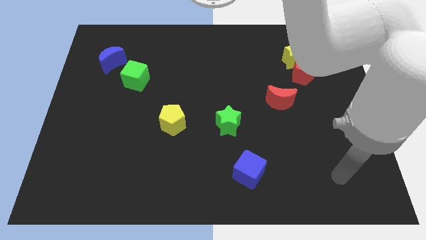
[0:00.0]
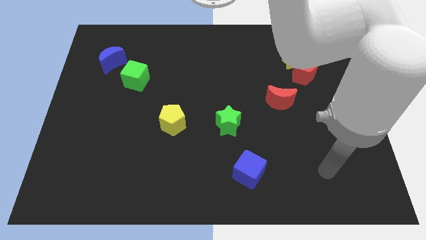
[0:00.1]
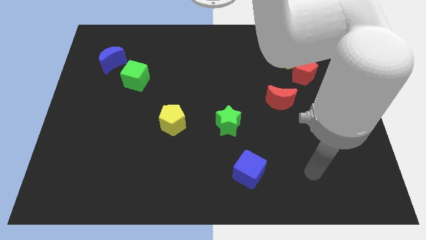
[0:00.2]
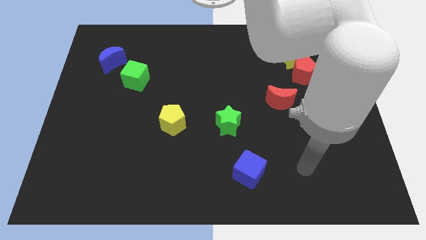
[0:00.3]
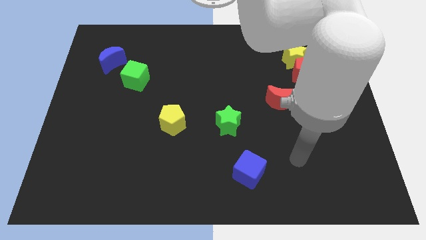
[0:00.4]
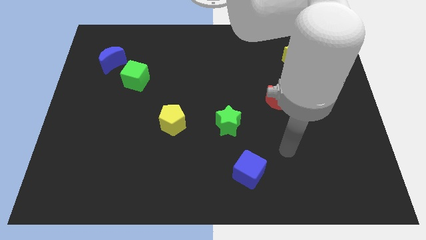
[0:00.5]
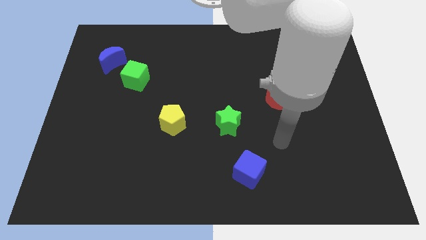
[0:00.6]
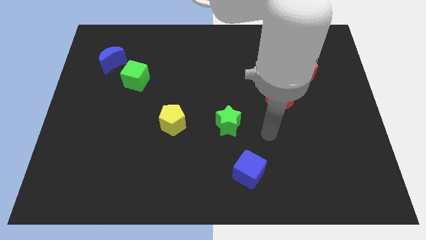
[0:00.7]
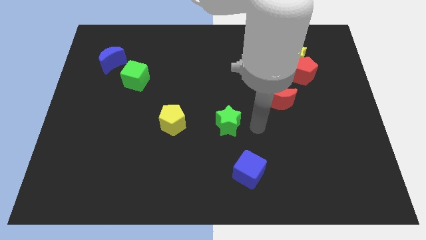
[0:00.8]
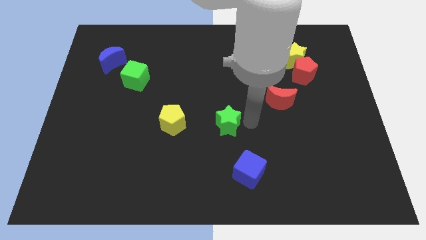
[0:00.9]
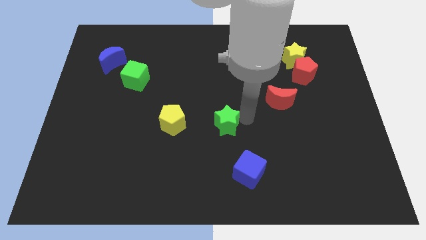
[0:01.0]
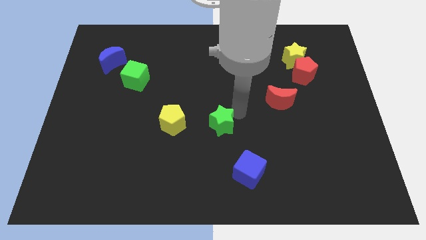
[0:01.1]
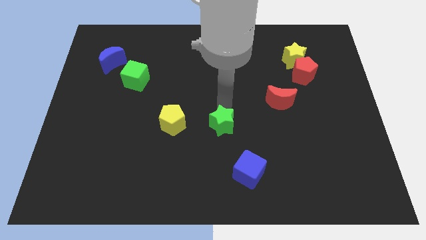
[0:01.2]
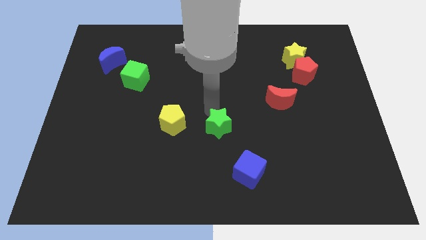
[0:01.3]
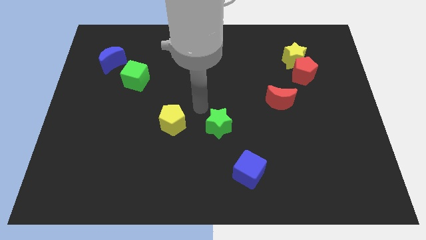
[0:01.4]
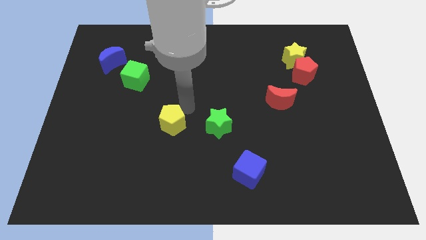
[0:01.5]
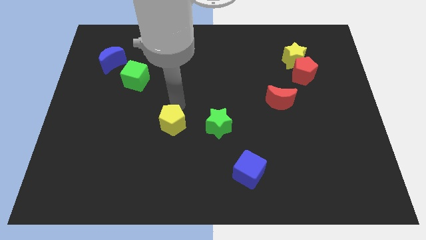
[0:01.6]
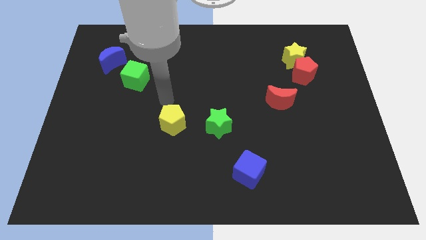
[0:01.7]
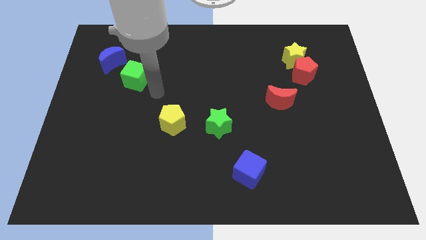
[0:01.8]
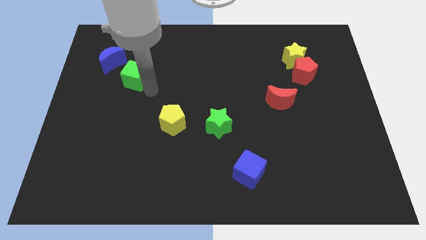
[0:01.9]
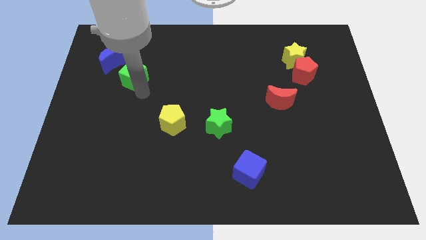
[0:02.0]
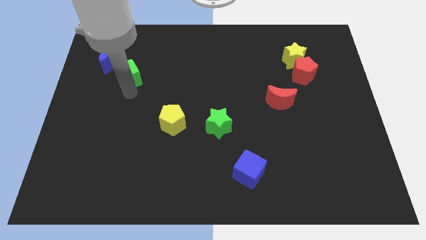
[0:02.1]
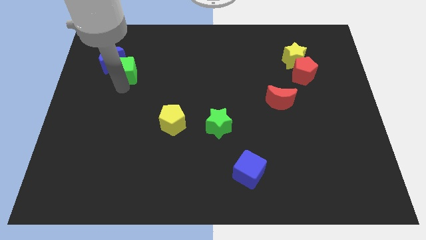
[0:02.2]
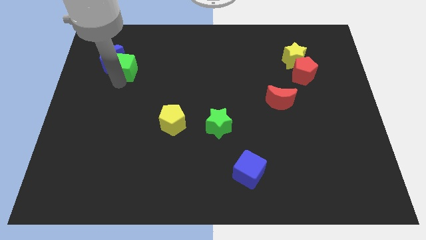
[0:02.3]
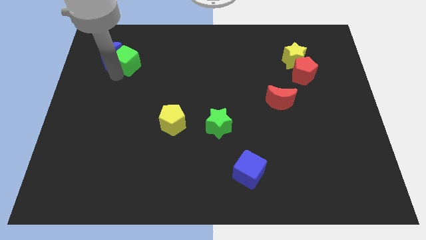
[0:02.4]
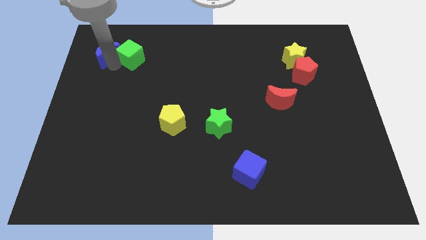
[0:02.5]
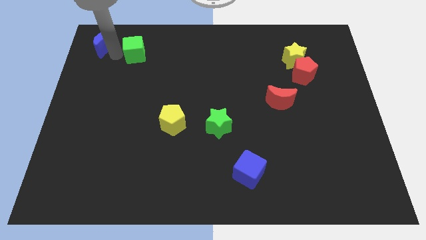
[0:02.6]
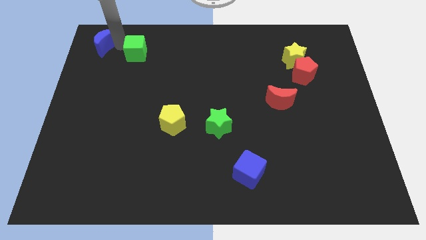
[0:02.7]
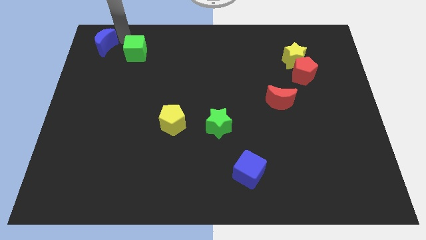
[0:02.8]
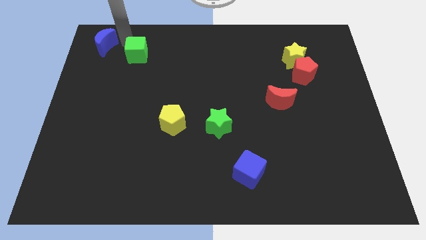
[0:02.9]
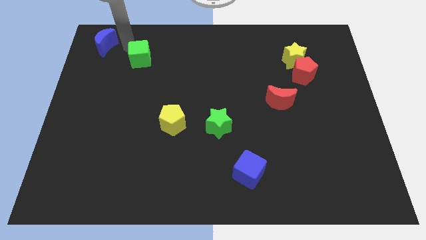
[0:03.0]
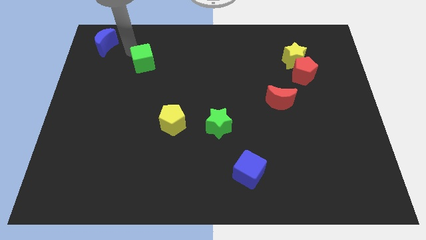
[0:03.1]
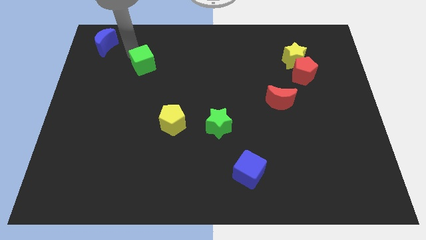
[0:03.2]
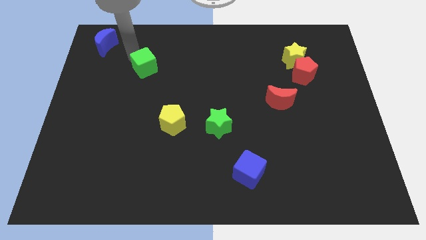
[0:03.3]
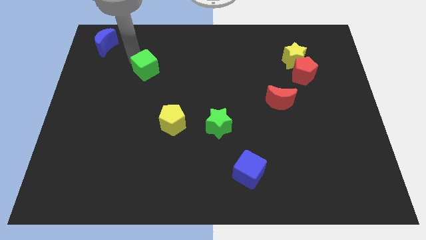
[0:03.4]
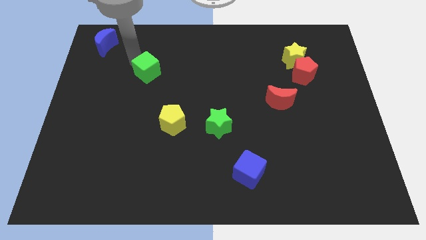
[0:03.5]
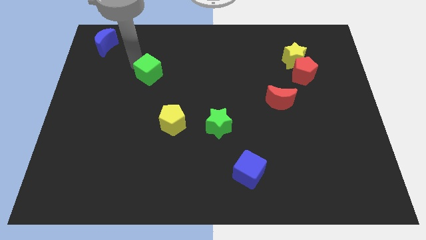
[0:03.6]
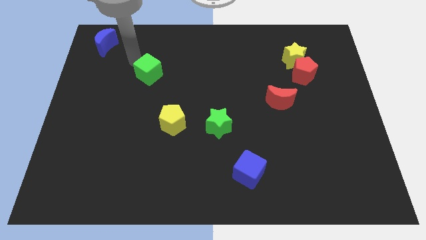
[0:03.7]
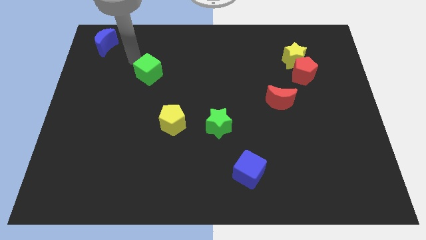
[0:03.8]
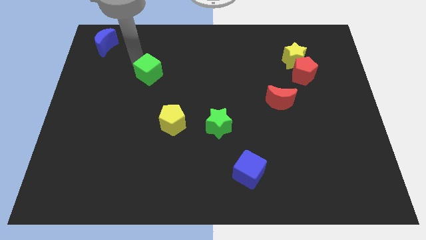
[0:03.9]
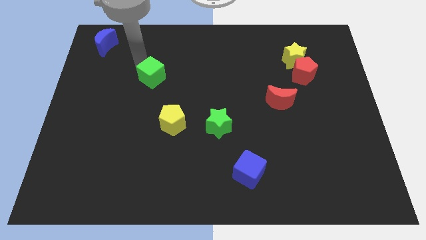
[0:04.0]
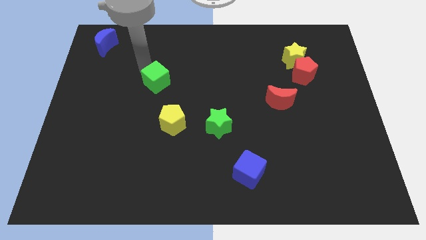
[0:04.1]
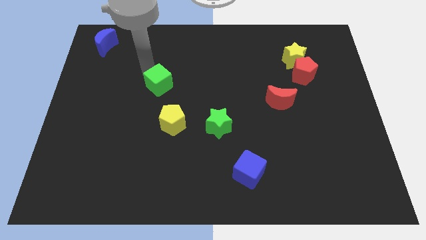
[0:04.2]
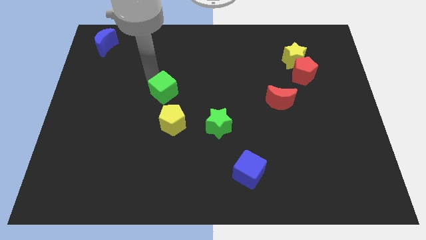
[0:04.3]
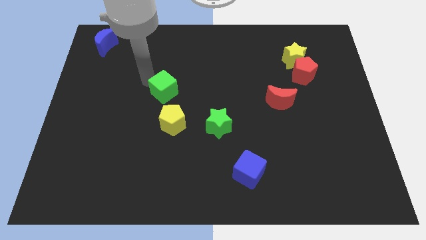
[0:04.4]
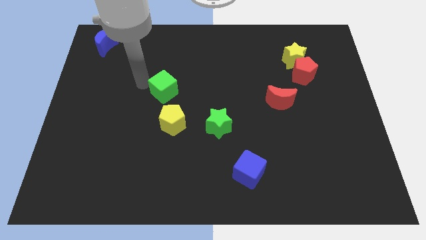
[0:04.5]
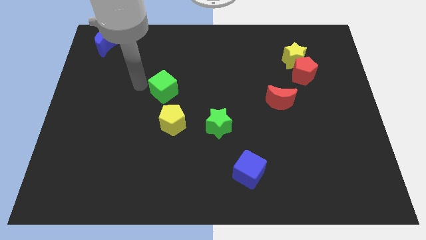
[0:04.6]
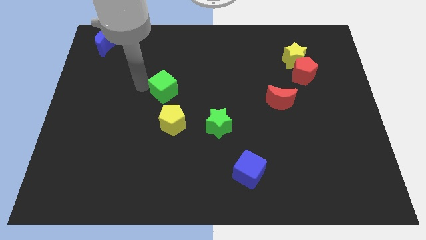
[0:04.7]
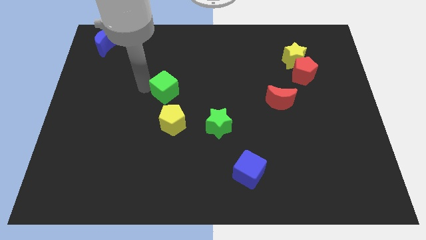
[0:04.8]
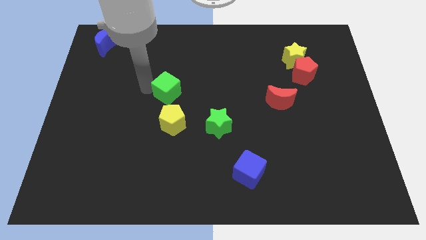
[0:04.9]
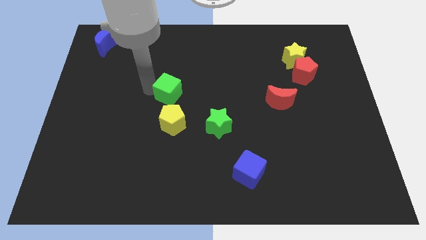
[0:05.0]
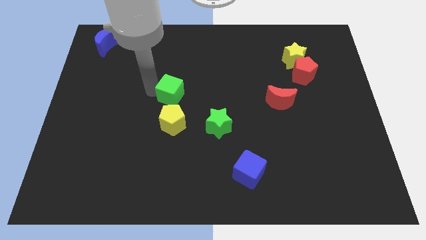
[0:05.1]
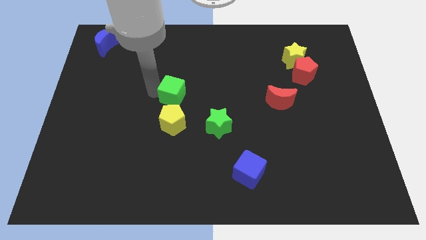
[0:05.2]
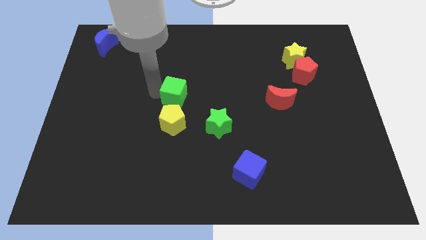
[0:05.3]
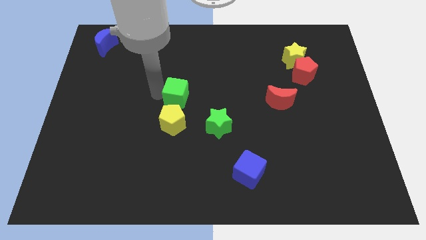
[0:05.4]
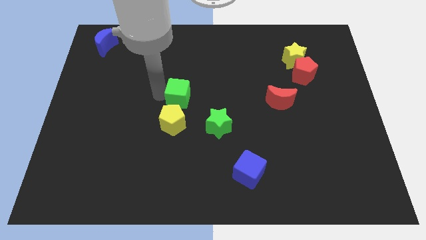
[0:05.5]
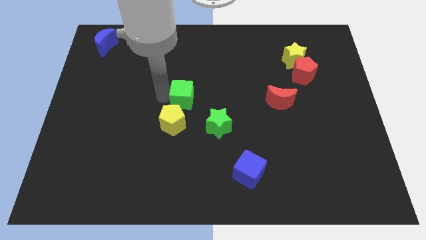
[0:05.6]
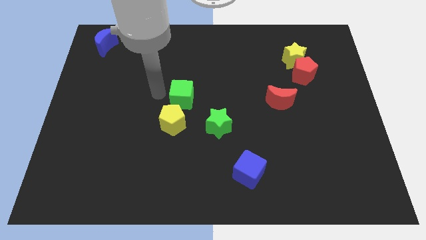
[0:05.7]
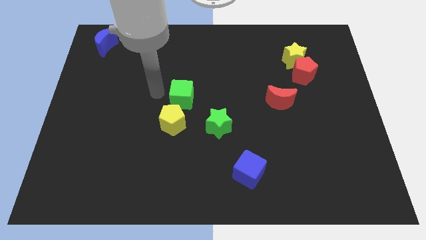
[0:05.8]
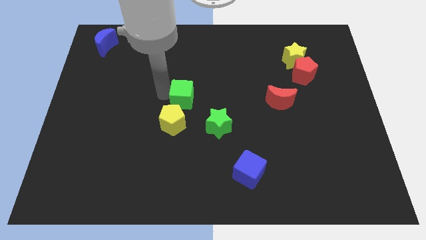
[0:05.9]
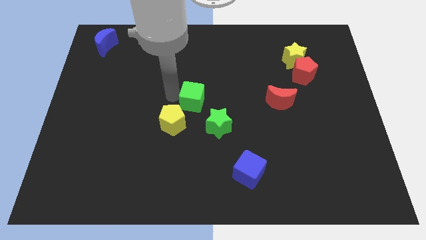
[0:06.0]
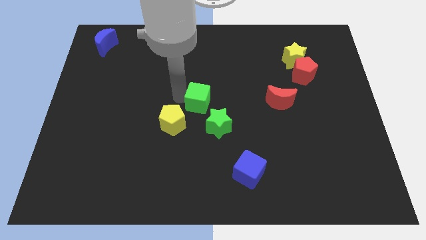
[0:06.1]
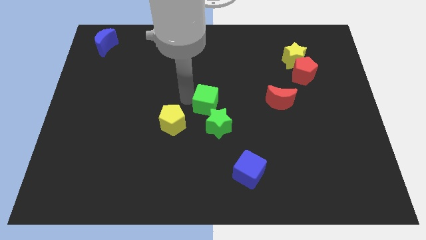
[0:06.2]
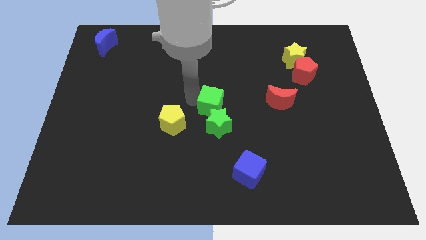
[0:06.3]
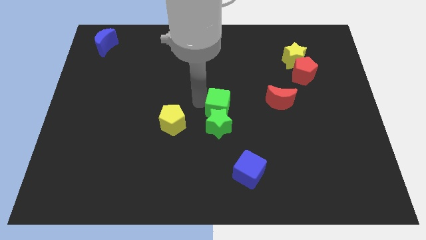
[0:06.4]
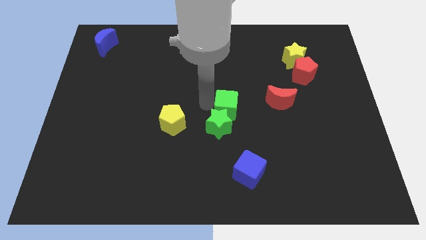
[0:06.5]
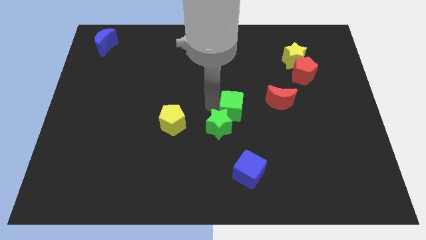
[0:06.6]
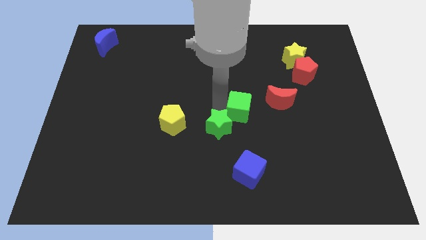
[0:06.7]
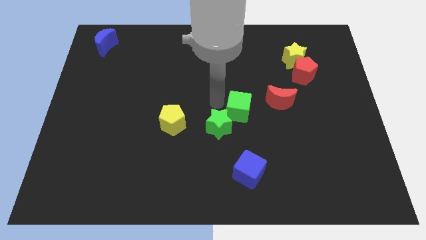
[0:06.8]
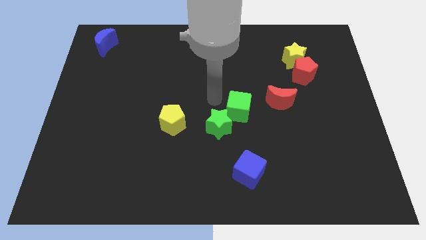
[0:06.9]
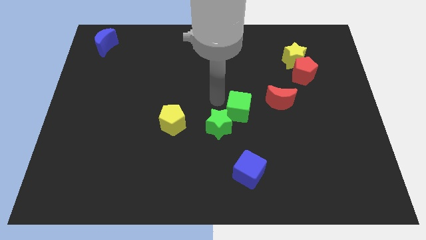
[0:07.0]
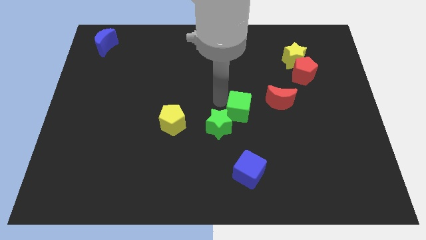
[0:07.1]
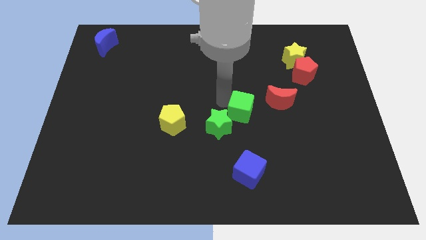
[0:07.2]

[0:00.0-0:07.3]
slide the green cube to the bottom left of the red moon
